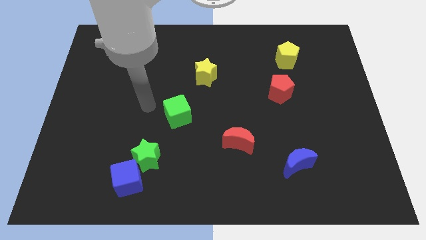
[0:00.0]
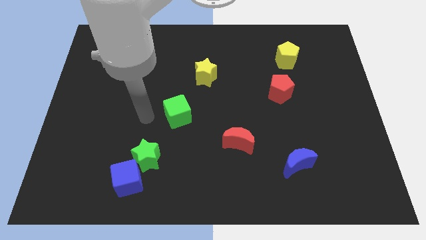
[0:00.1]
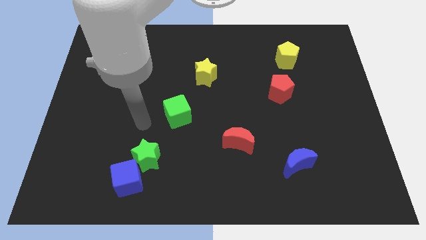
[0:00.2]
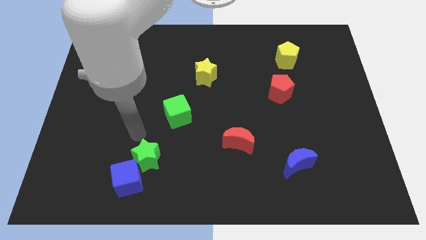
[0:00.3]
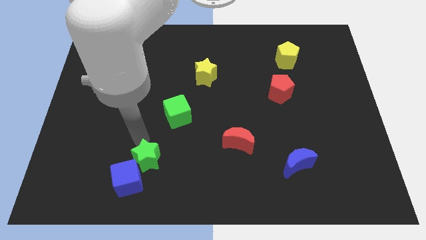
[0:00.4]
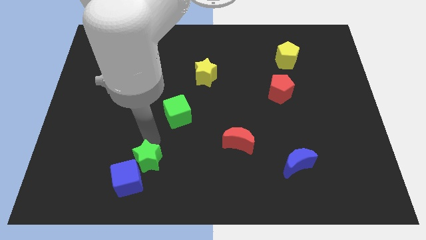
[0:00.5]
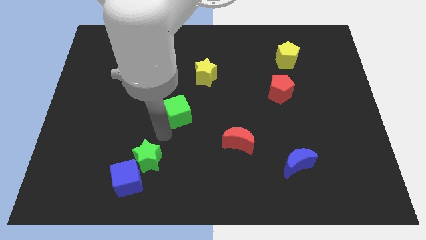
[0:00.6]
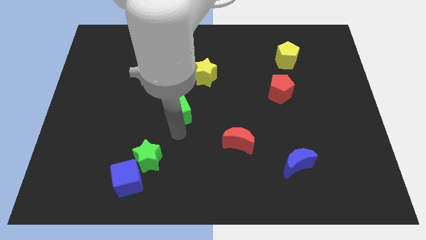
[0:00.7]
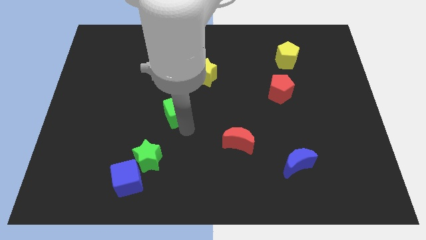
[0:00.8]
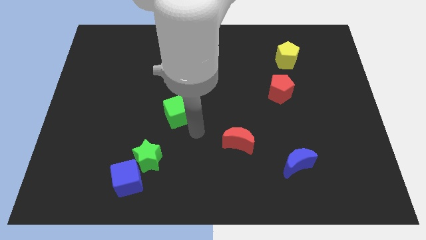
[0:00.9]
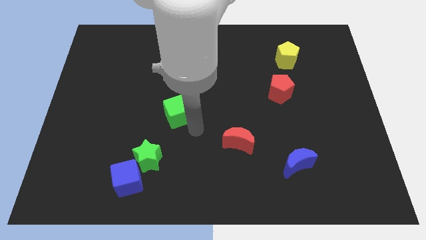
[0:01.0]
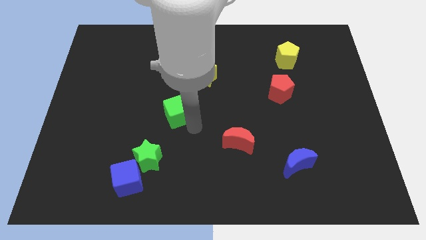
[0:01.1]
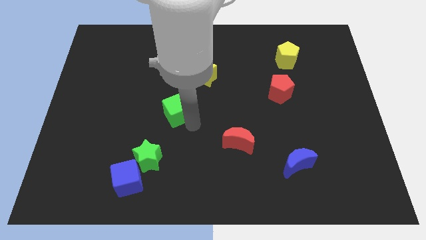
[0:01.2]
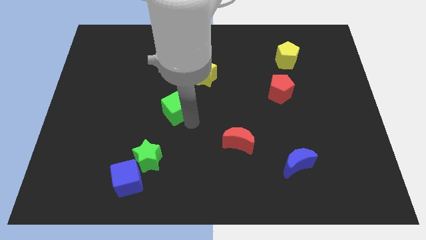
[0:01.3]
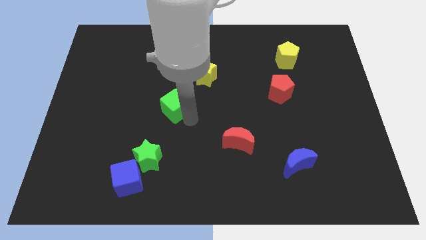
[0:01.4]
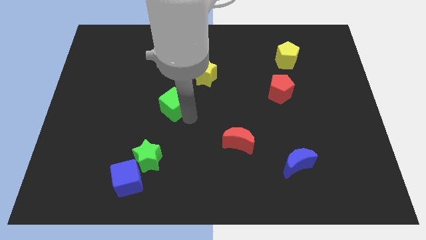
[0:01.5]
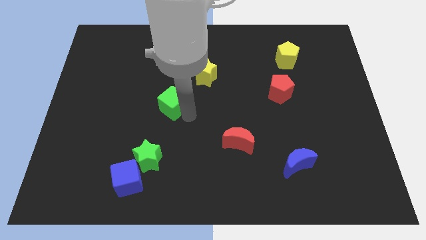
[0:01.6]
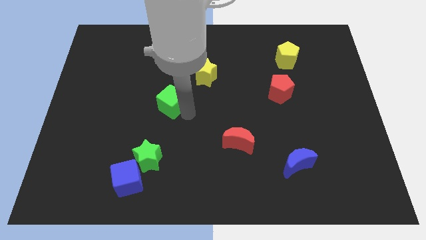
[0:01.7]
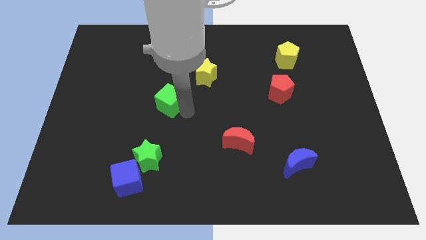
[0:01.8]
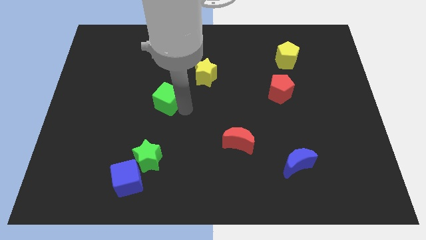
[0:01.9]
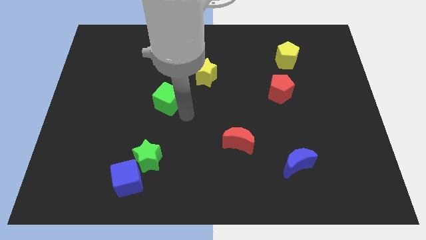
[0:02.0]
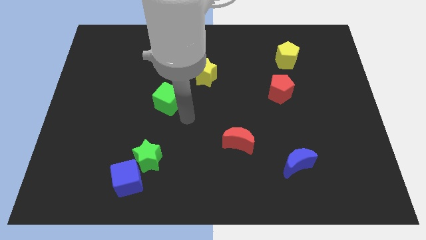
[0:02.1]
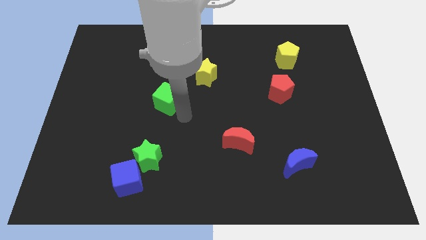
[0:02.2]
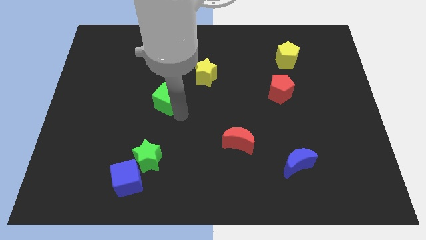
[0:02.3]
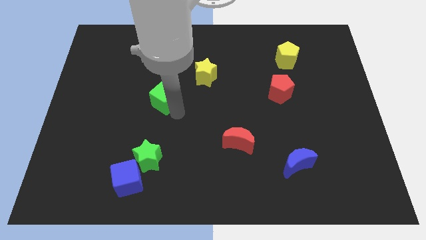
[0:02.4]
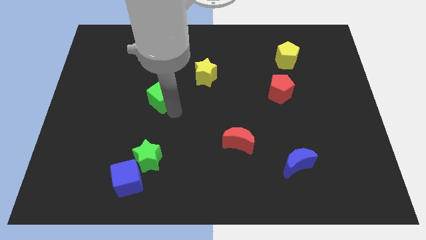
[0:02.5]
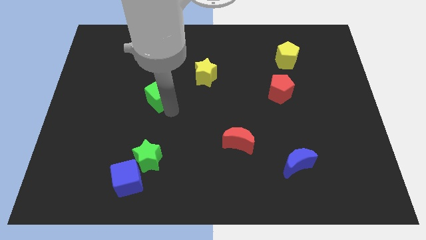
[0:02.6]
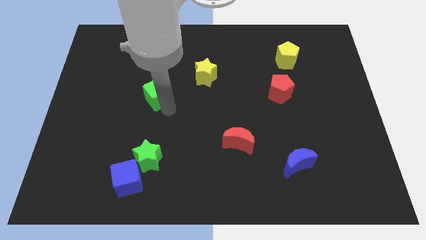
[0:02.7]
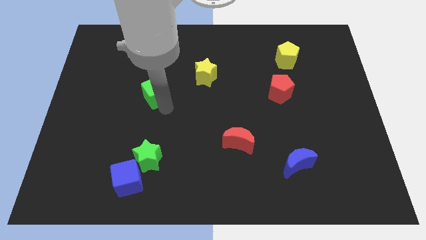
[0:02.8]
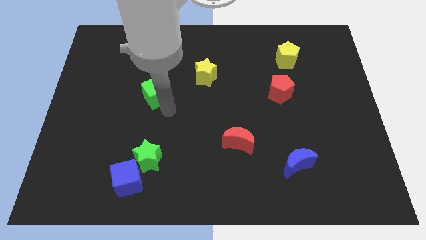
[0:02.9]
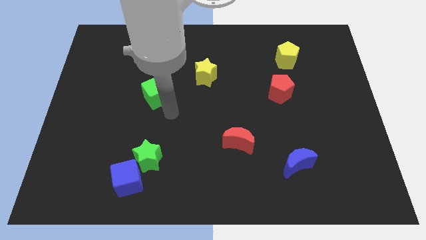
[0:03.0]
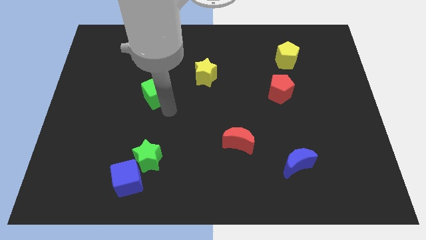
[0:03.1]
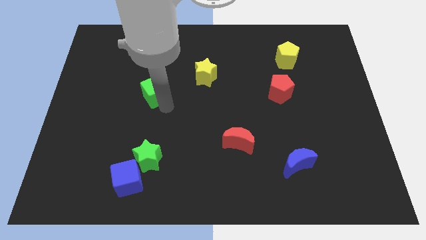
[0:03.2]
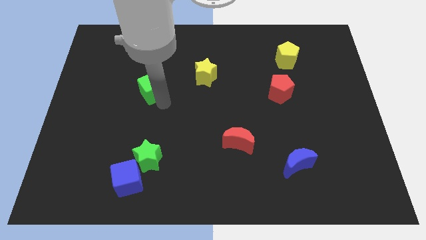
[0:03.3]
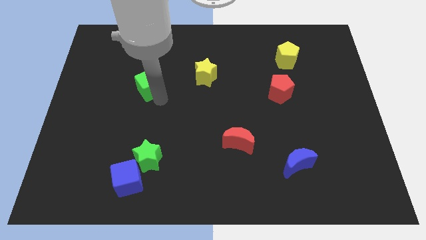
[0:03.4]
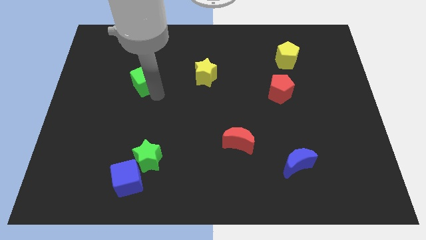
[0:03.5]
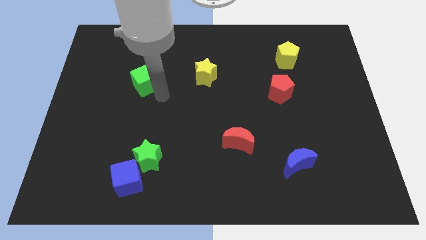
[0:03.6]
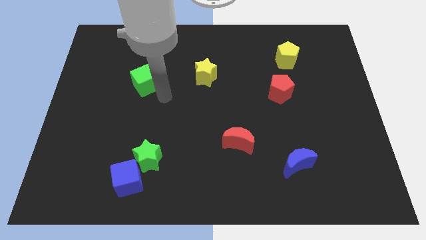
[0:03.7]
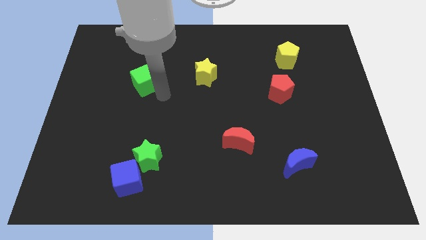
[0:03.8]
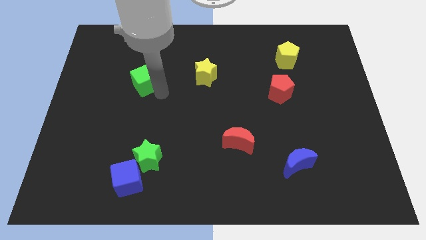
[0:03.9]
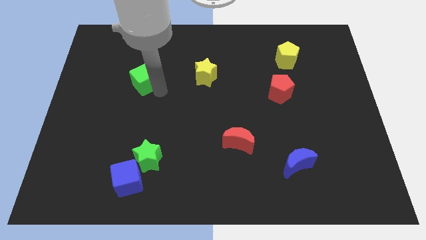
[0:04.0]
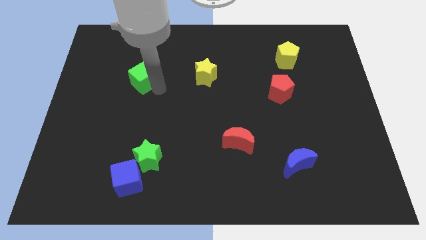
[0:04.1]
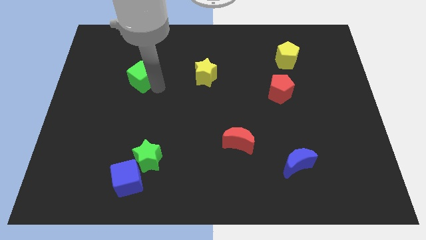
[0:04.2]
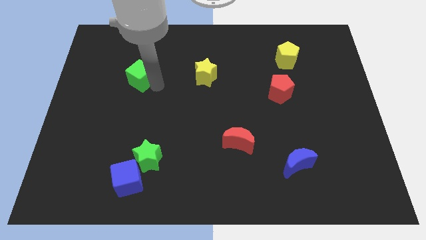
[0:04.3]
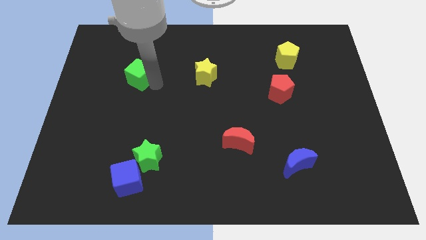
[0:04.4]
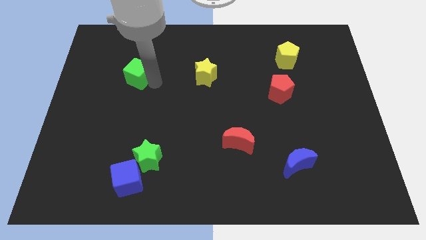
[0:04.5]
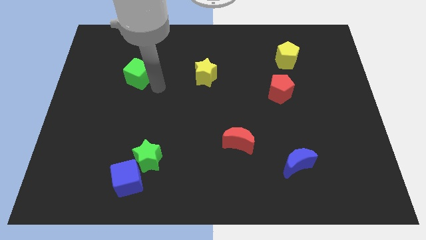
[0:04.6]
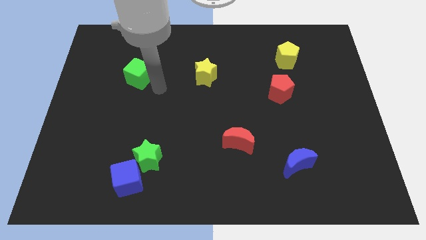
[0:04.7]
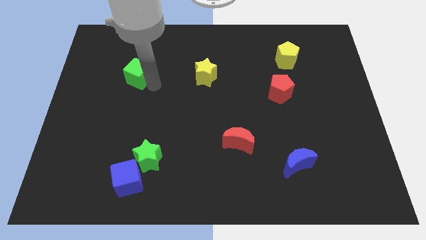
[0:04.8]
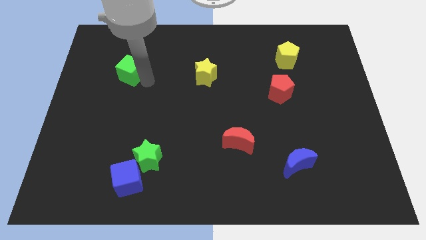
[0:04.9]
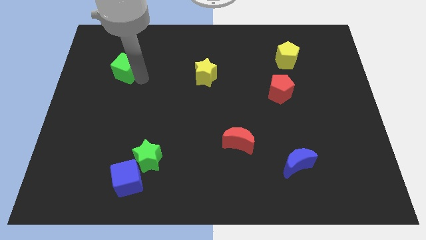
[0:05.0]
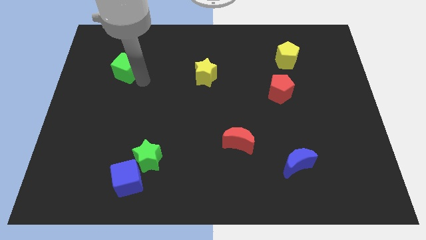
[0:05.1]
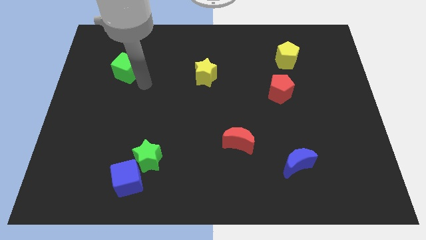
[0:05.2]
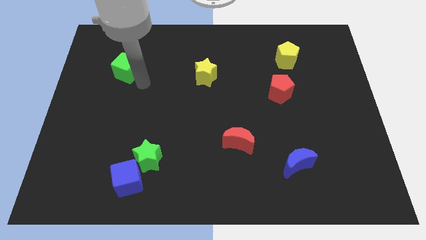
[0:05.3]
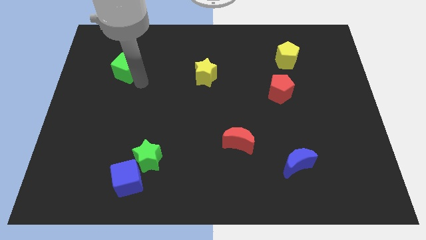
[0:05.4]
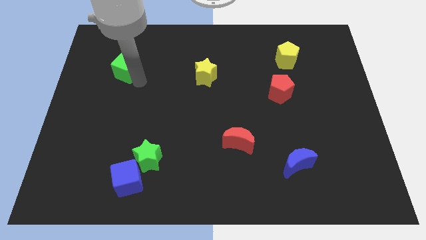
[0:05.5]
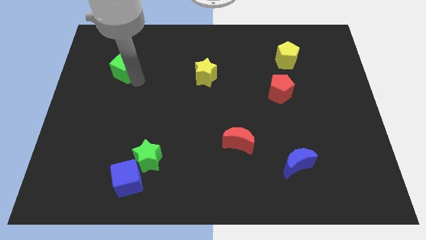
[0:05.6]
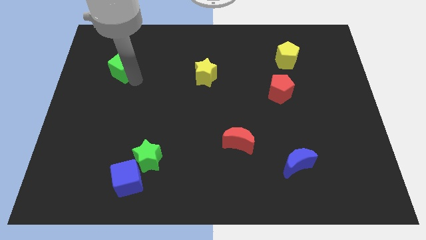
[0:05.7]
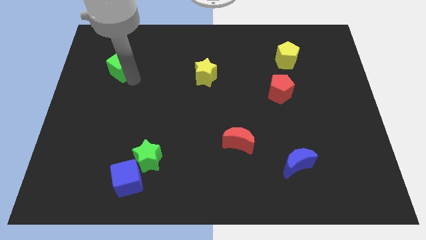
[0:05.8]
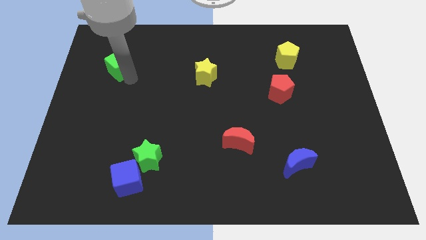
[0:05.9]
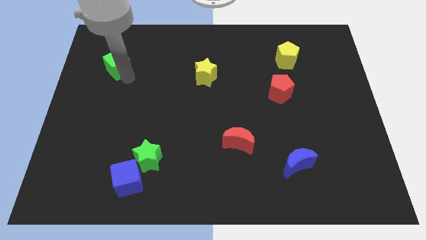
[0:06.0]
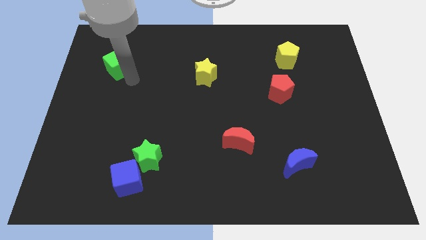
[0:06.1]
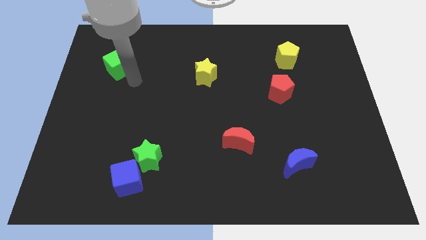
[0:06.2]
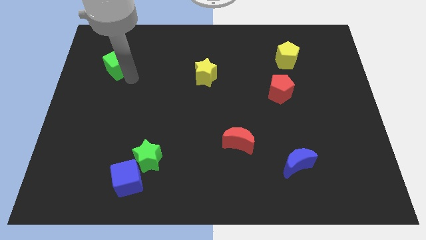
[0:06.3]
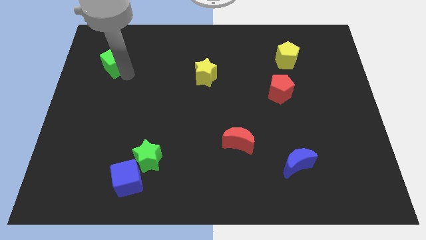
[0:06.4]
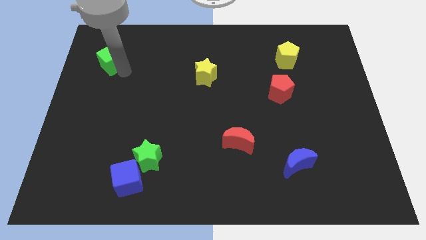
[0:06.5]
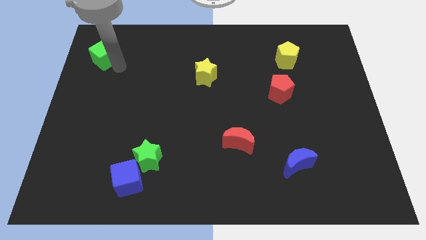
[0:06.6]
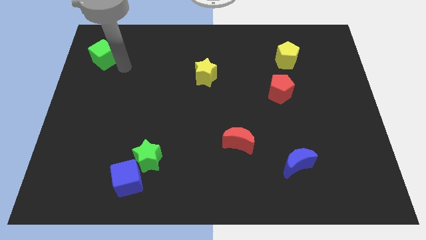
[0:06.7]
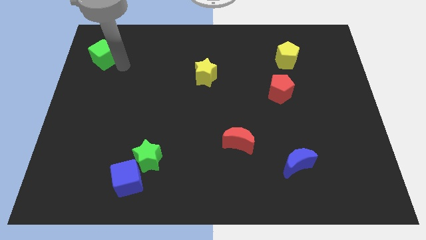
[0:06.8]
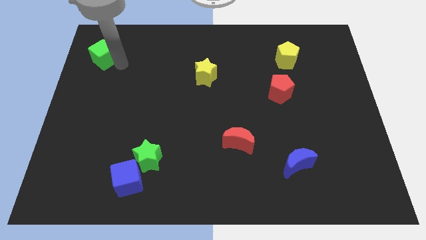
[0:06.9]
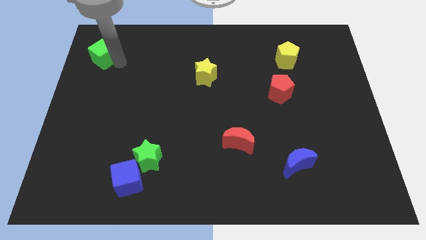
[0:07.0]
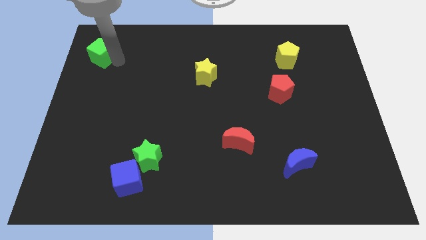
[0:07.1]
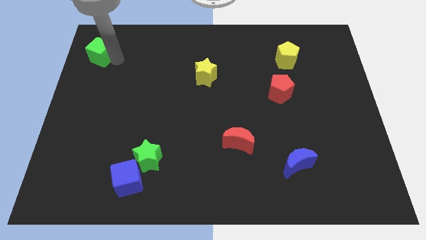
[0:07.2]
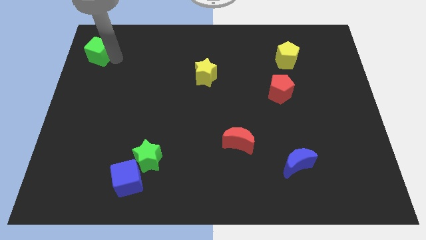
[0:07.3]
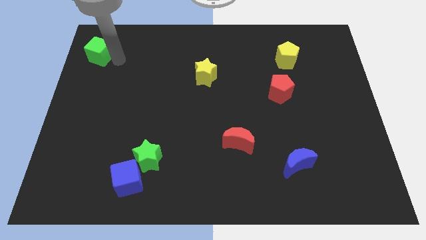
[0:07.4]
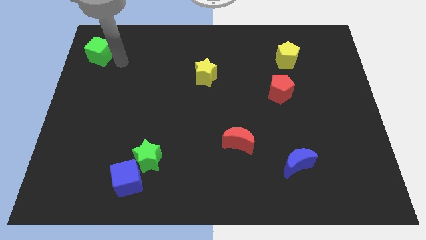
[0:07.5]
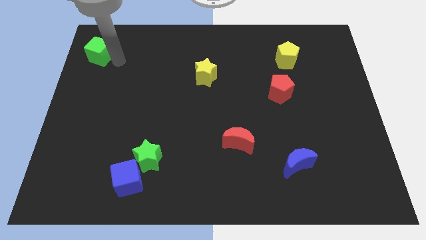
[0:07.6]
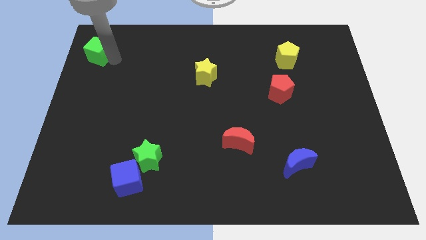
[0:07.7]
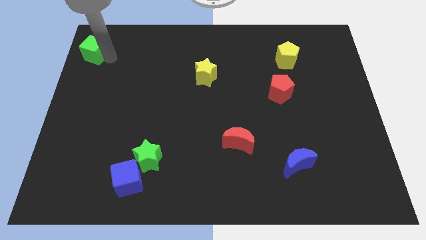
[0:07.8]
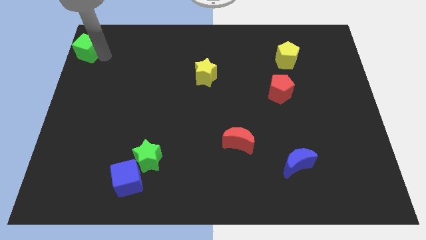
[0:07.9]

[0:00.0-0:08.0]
slide the green cube to the top left corner
